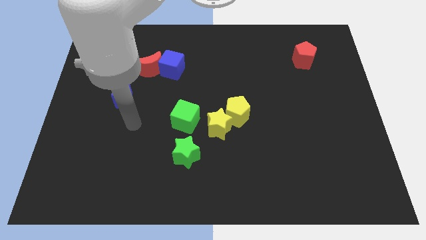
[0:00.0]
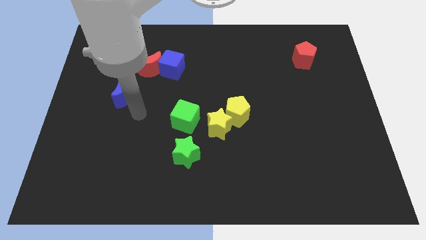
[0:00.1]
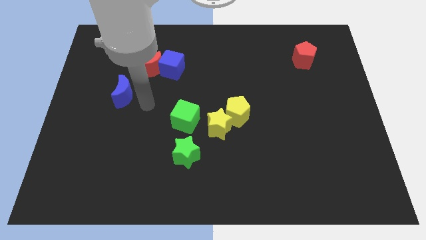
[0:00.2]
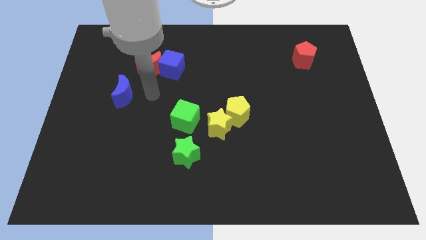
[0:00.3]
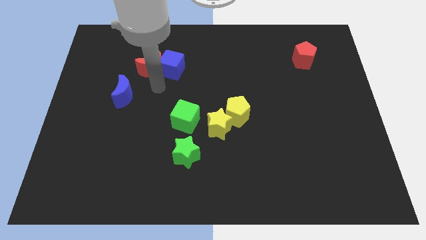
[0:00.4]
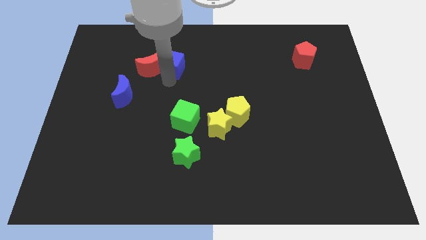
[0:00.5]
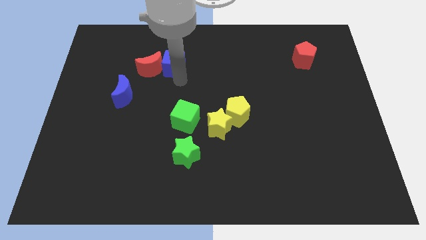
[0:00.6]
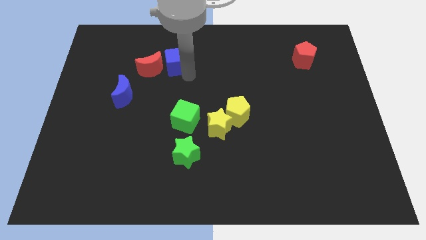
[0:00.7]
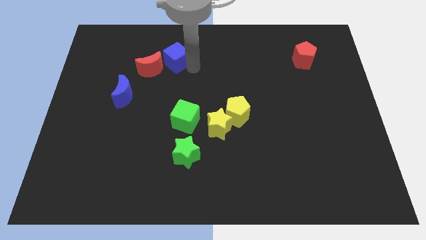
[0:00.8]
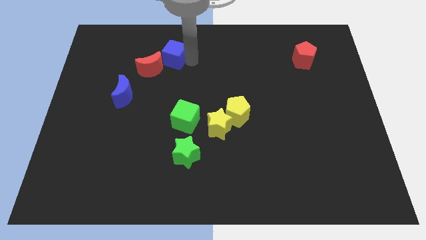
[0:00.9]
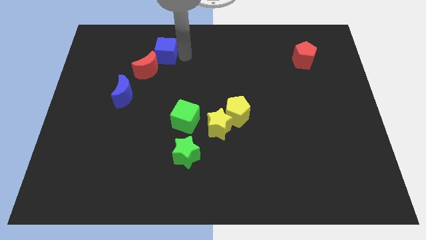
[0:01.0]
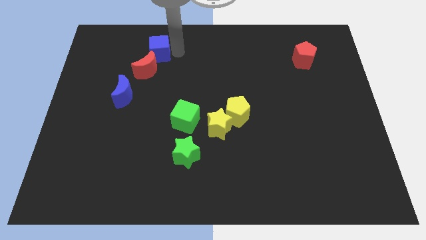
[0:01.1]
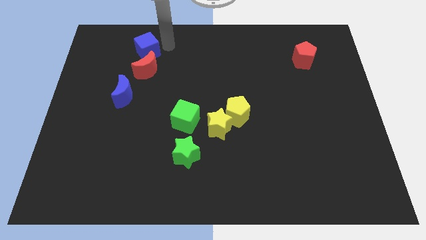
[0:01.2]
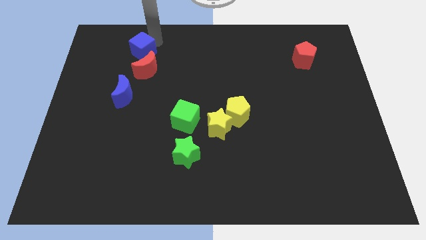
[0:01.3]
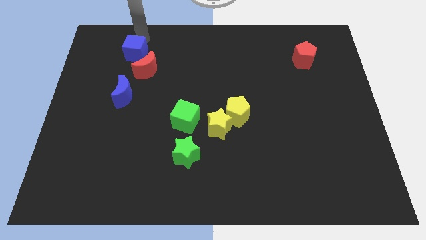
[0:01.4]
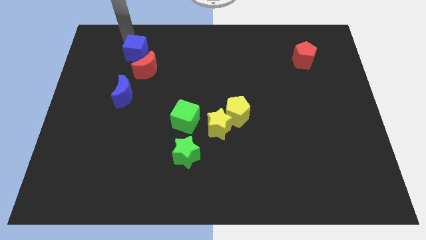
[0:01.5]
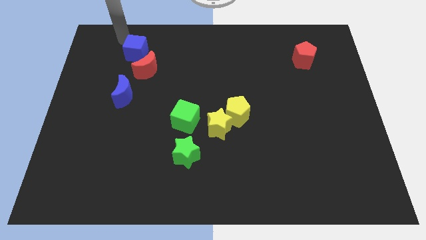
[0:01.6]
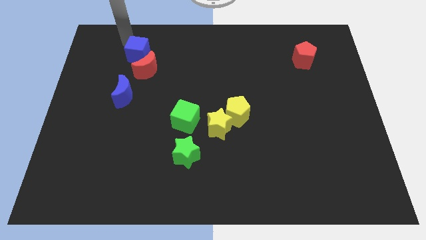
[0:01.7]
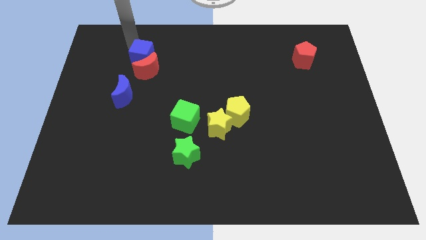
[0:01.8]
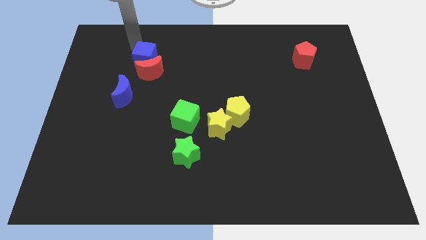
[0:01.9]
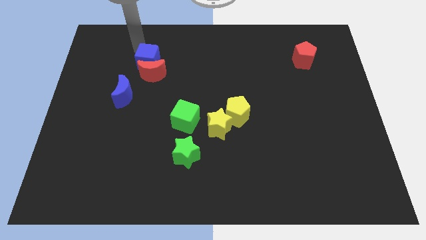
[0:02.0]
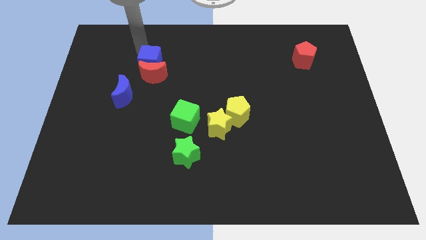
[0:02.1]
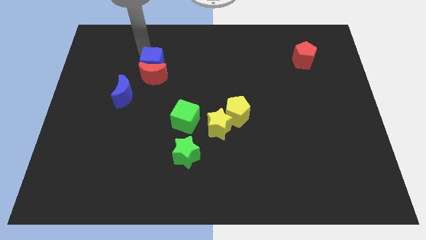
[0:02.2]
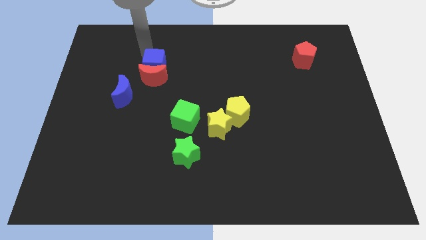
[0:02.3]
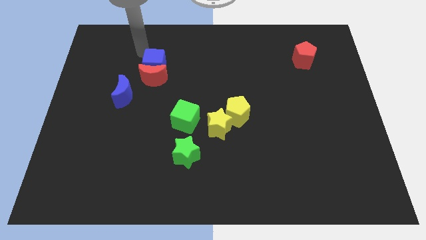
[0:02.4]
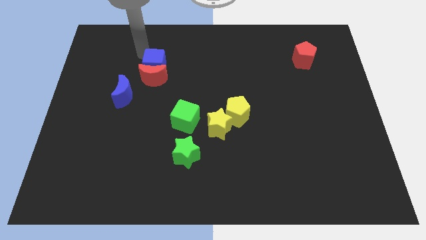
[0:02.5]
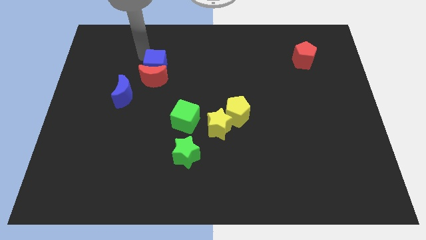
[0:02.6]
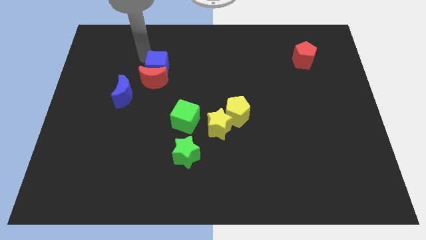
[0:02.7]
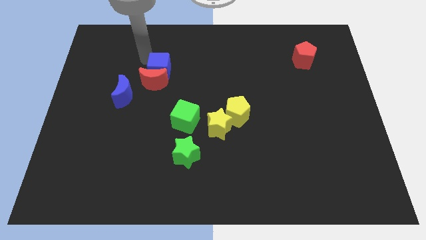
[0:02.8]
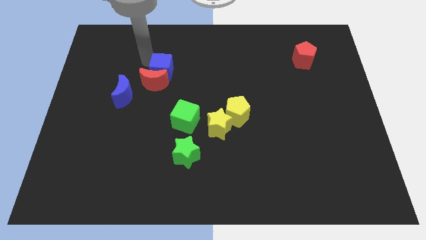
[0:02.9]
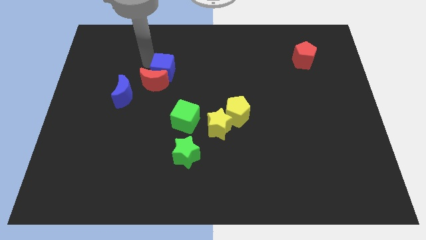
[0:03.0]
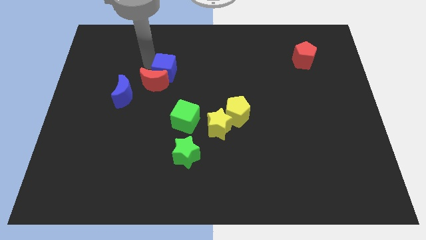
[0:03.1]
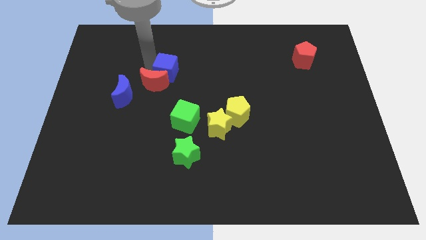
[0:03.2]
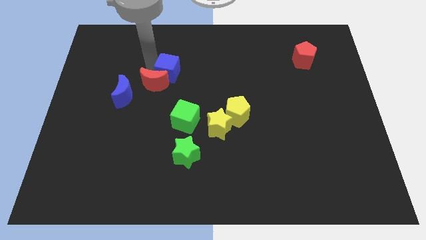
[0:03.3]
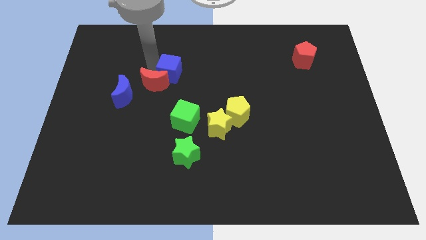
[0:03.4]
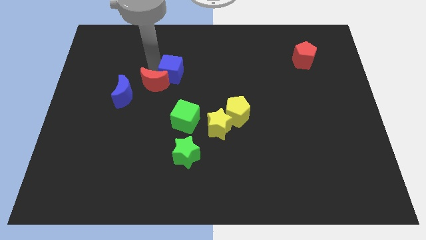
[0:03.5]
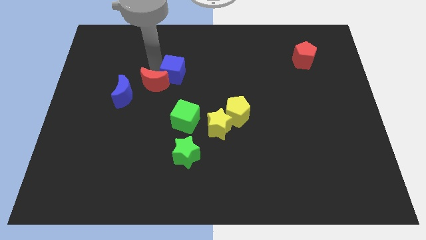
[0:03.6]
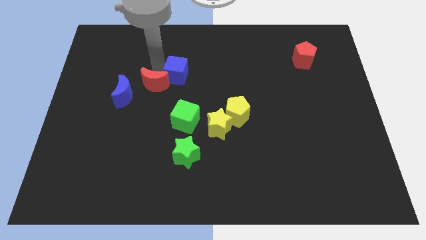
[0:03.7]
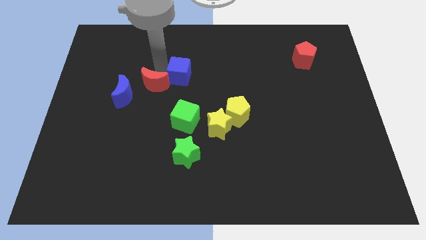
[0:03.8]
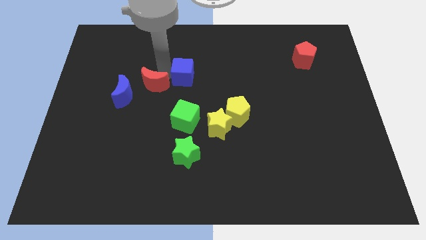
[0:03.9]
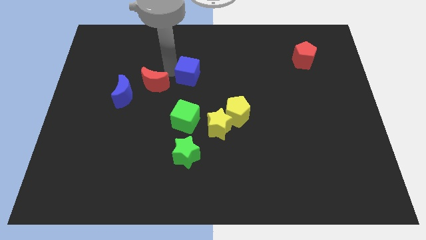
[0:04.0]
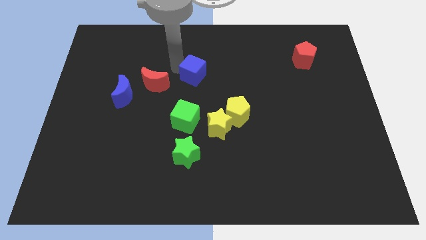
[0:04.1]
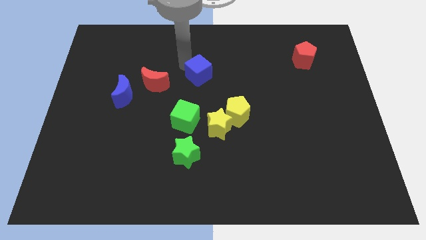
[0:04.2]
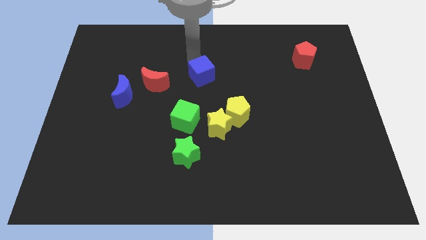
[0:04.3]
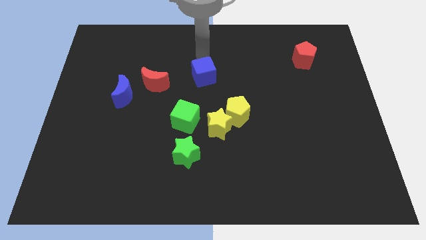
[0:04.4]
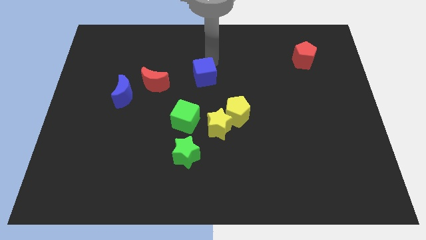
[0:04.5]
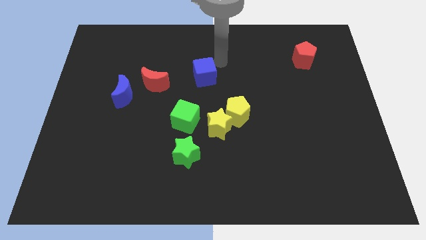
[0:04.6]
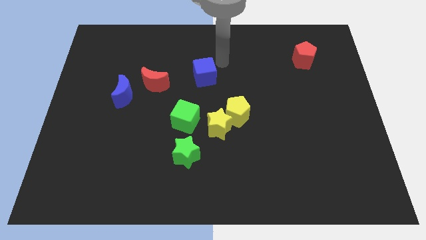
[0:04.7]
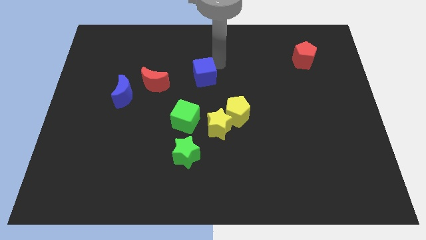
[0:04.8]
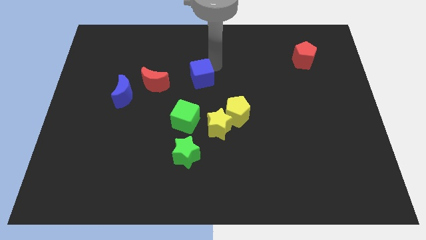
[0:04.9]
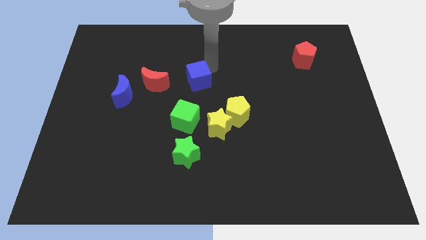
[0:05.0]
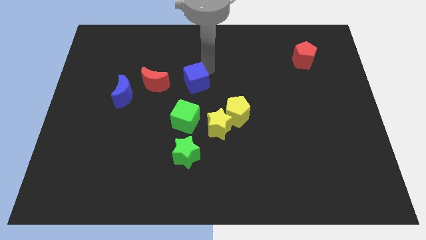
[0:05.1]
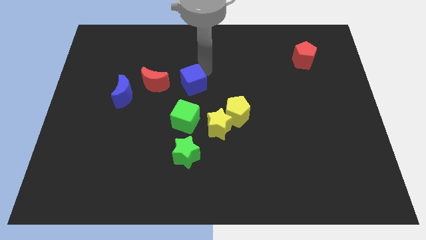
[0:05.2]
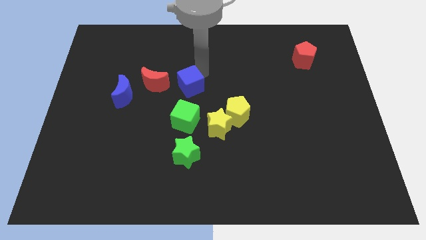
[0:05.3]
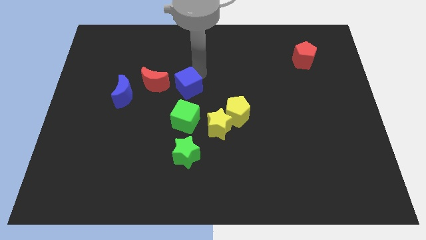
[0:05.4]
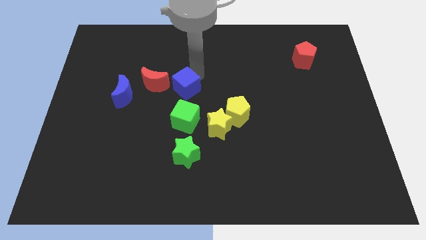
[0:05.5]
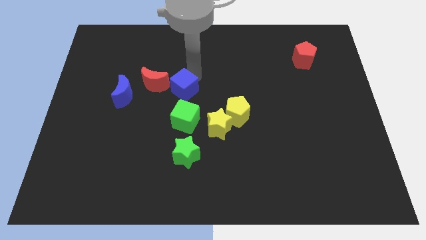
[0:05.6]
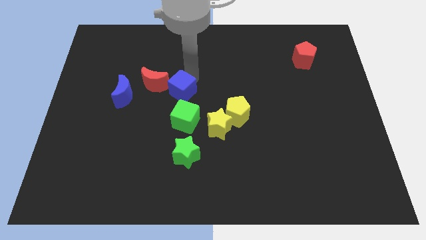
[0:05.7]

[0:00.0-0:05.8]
slightly push the blue cube down

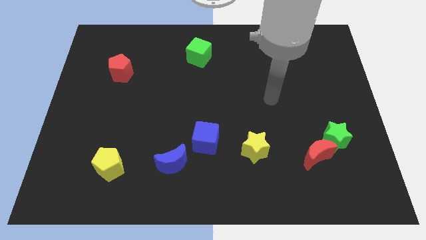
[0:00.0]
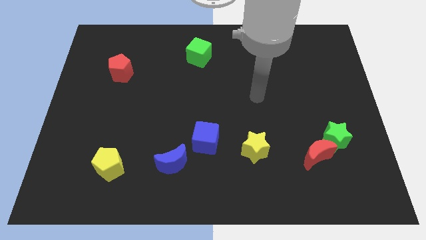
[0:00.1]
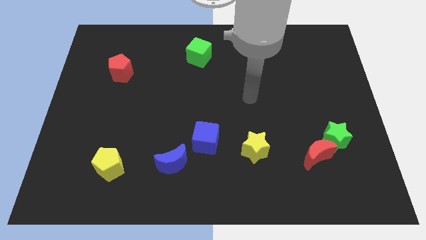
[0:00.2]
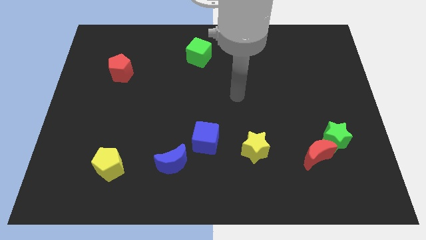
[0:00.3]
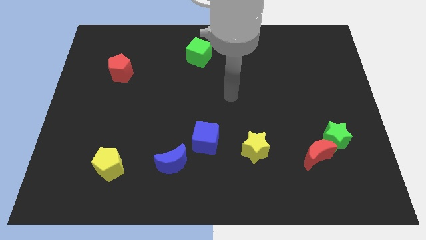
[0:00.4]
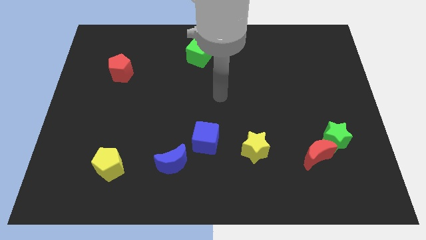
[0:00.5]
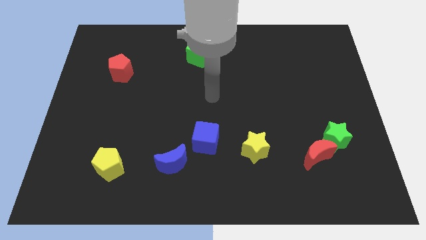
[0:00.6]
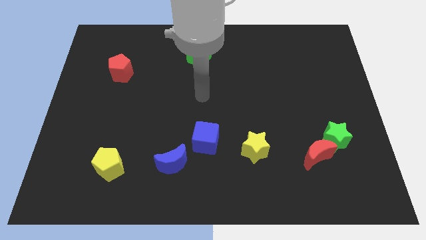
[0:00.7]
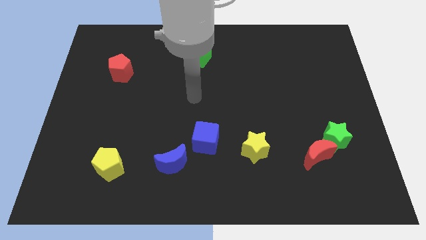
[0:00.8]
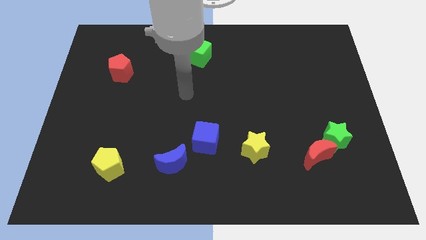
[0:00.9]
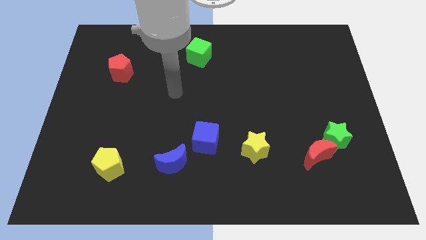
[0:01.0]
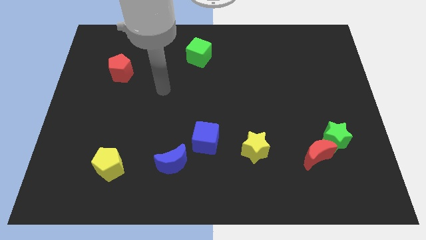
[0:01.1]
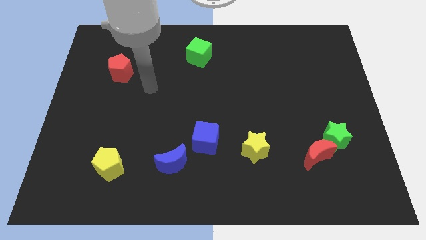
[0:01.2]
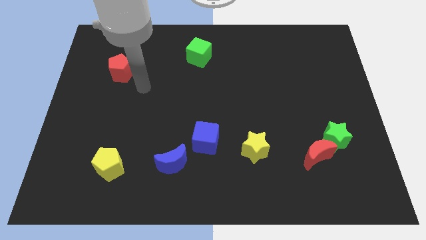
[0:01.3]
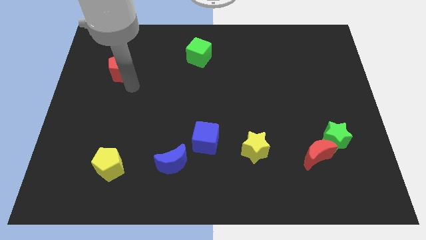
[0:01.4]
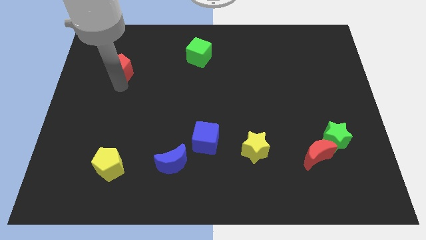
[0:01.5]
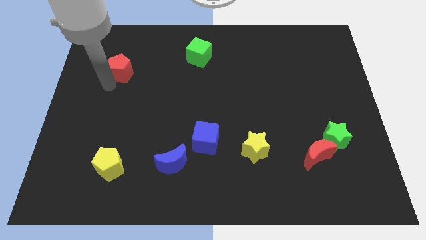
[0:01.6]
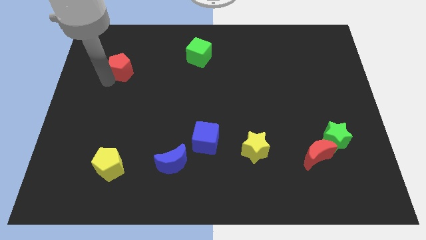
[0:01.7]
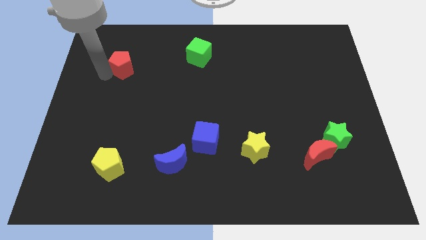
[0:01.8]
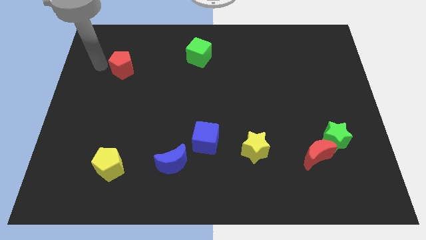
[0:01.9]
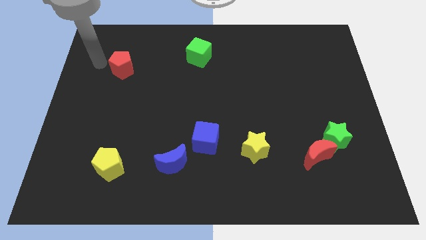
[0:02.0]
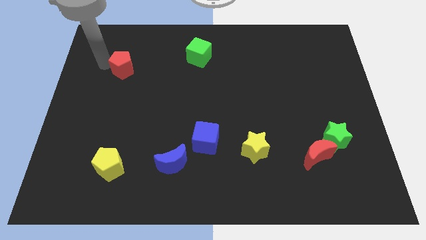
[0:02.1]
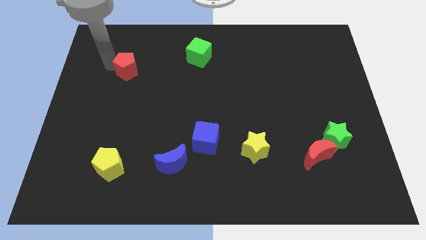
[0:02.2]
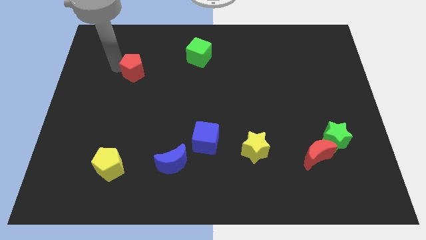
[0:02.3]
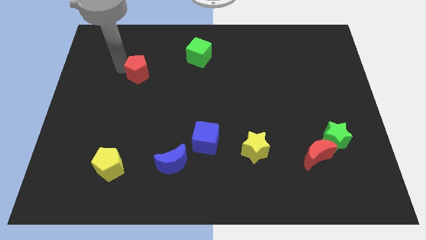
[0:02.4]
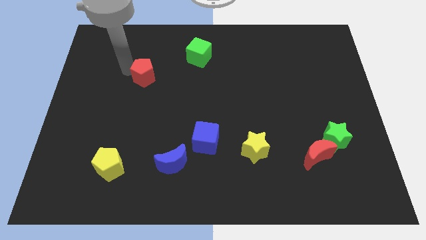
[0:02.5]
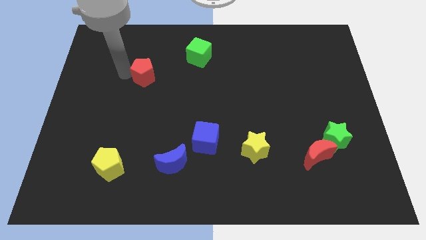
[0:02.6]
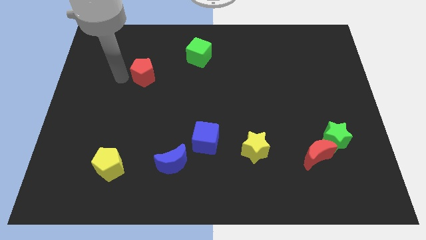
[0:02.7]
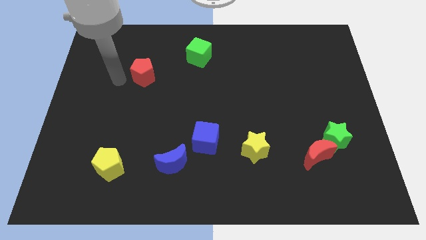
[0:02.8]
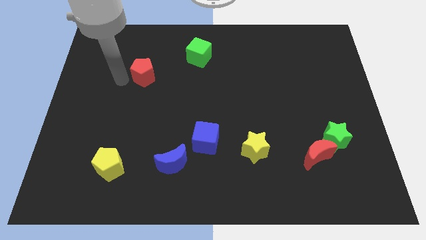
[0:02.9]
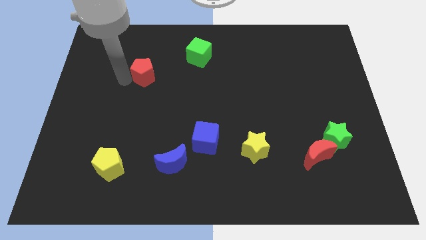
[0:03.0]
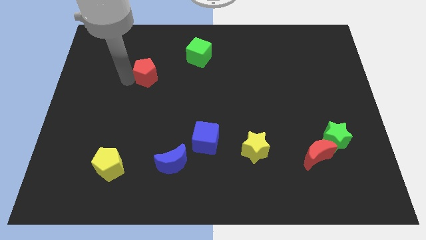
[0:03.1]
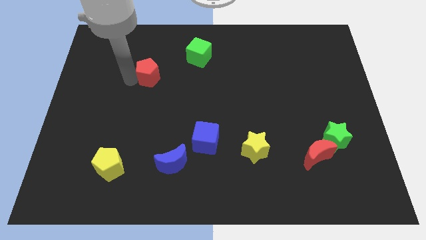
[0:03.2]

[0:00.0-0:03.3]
move the red pentagon to the right a little
